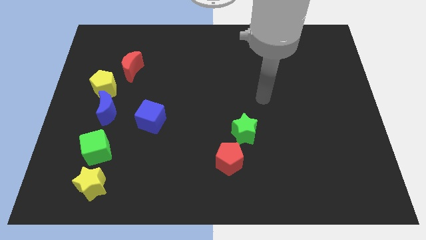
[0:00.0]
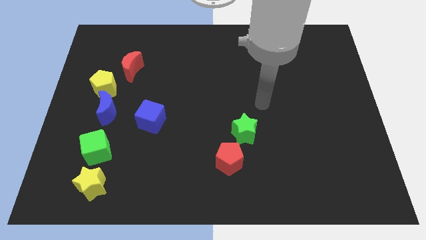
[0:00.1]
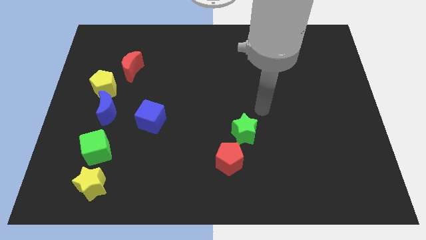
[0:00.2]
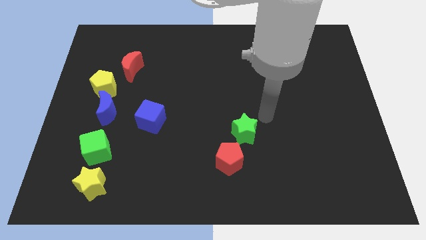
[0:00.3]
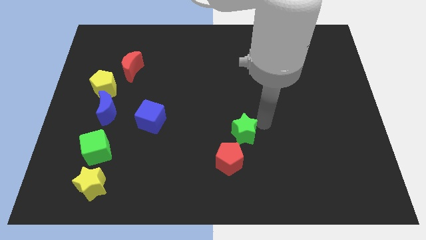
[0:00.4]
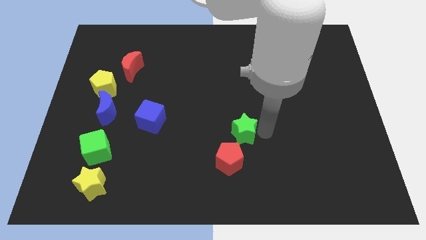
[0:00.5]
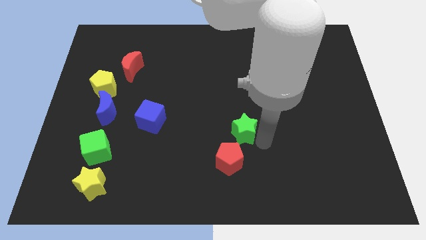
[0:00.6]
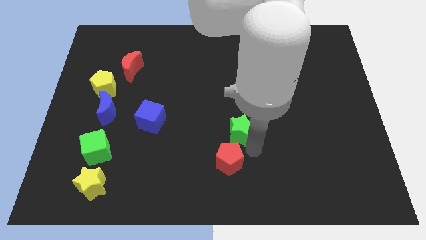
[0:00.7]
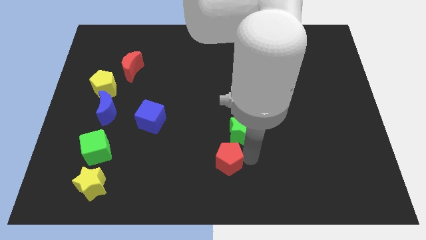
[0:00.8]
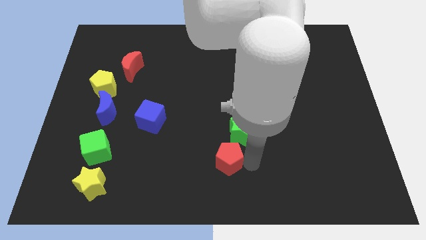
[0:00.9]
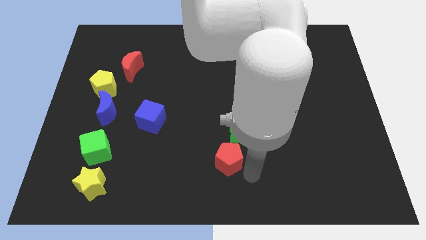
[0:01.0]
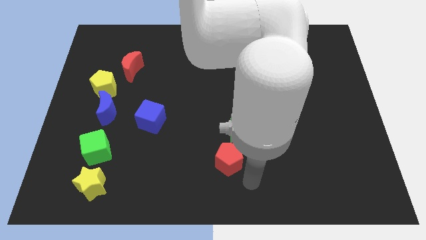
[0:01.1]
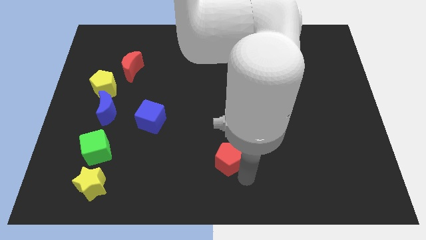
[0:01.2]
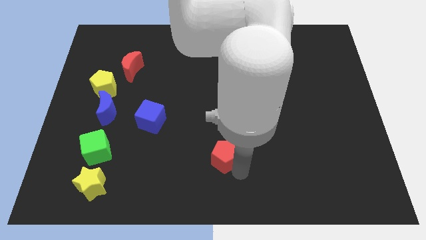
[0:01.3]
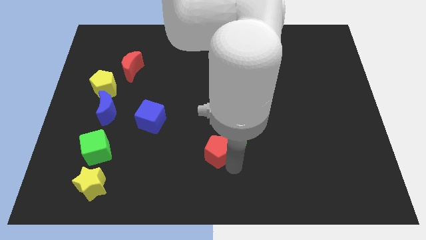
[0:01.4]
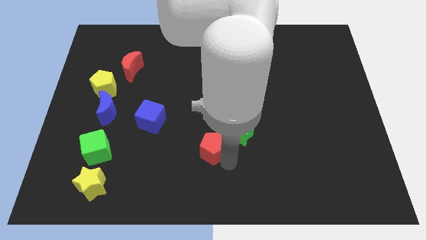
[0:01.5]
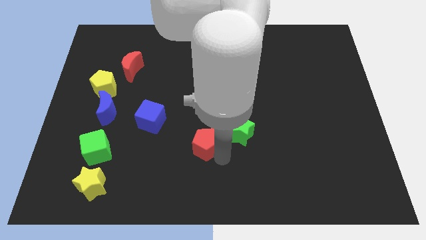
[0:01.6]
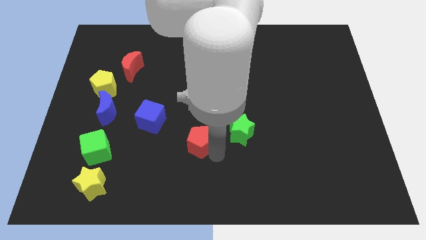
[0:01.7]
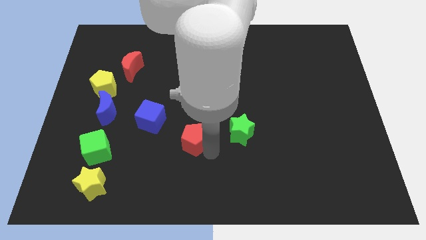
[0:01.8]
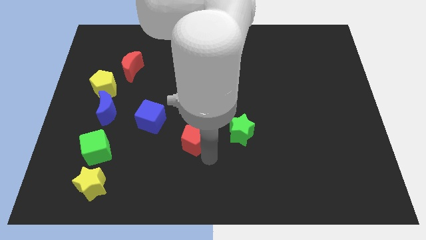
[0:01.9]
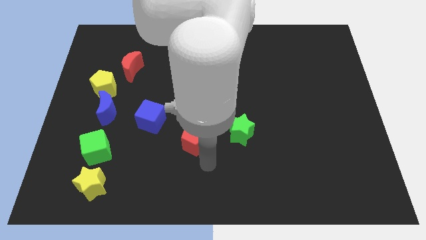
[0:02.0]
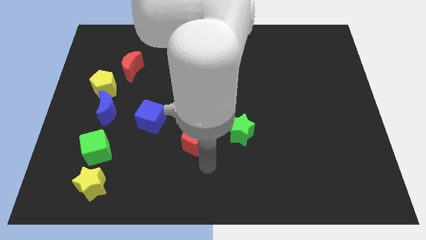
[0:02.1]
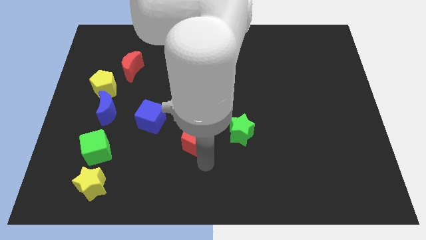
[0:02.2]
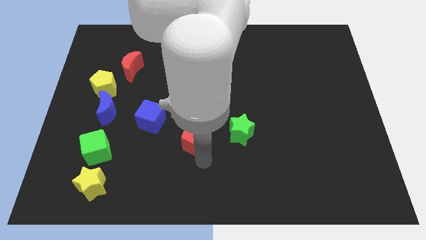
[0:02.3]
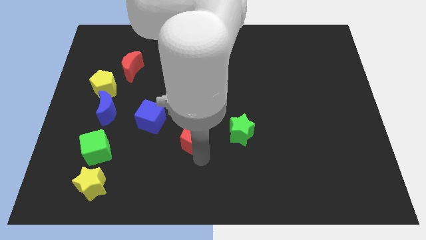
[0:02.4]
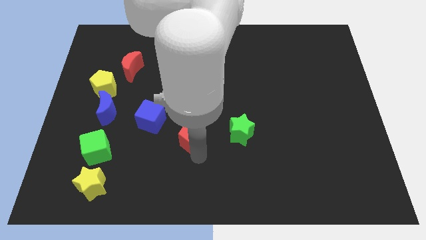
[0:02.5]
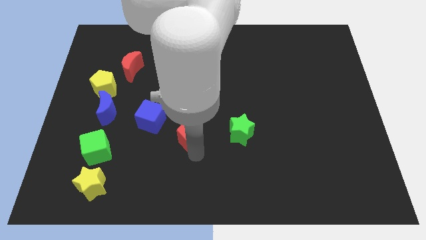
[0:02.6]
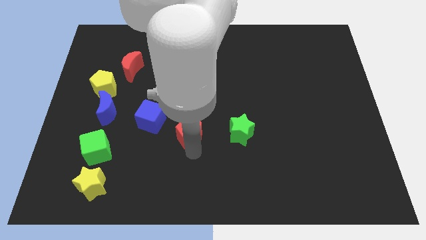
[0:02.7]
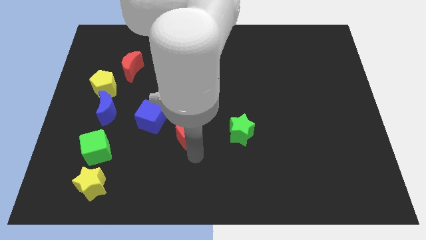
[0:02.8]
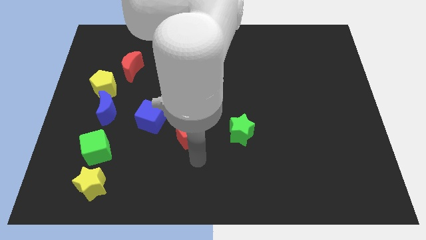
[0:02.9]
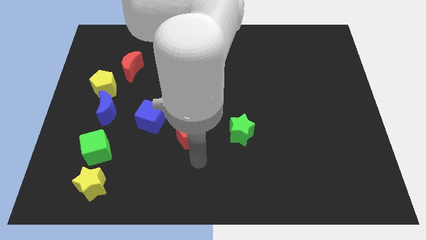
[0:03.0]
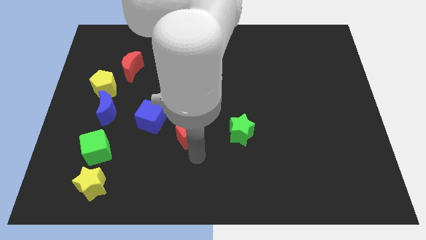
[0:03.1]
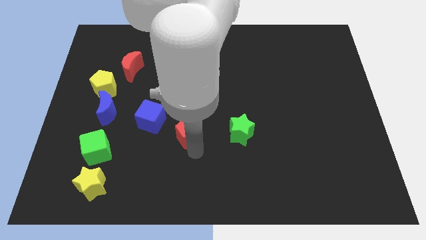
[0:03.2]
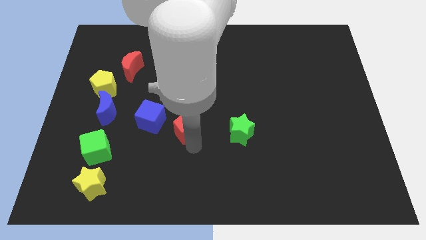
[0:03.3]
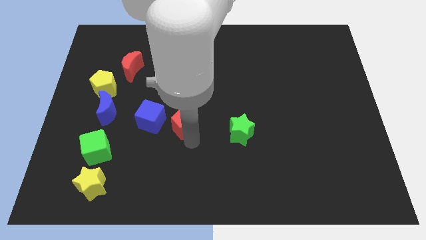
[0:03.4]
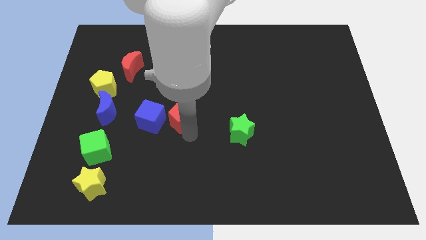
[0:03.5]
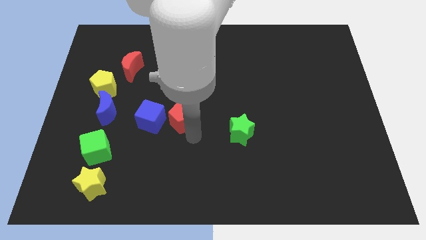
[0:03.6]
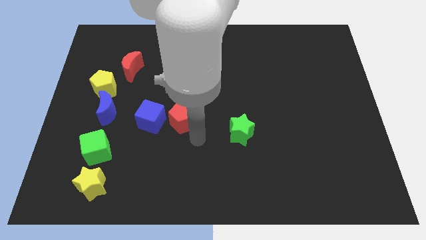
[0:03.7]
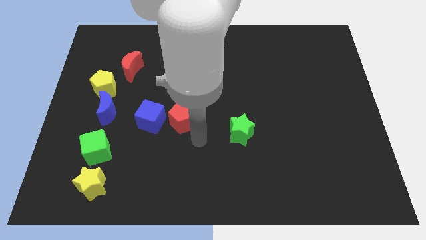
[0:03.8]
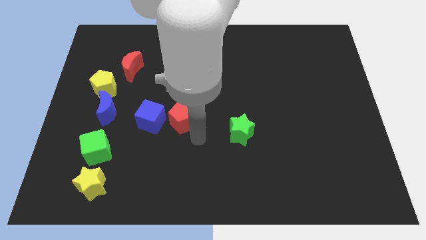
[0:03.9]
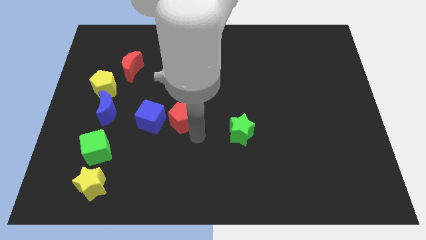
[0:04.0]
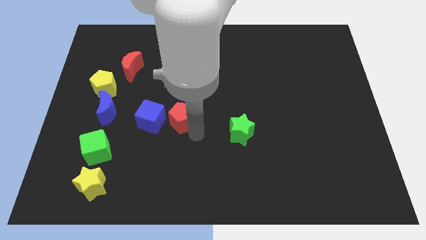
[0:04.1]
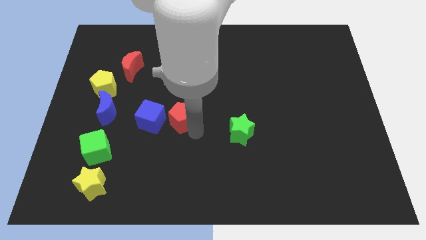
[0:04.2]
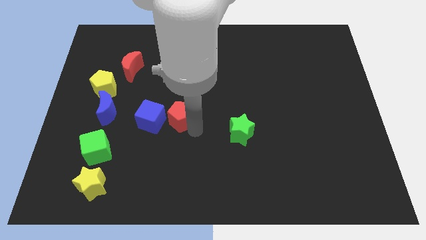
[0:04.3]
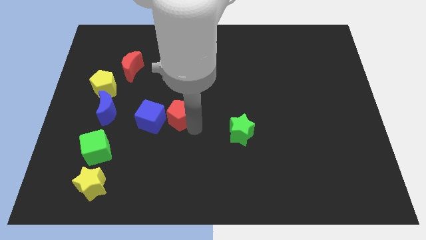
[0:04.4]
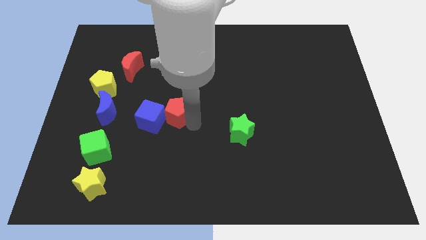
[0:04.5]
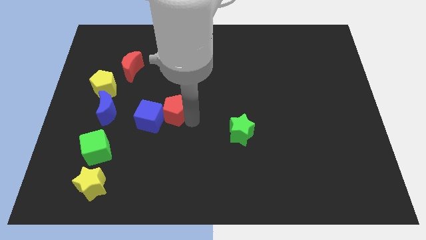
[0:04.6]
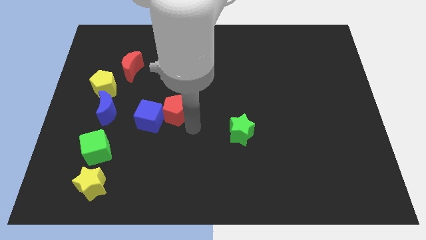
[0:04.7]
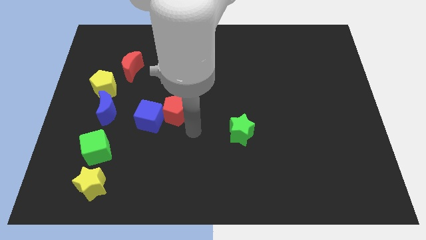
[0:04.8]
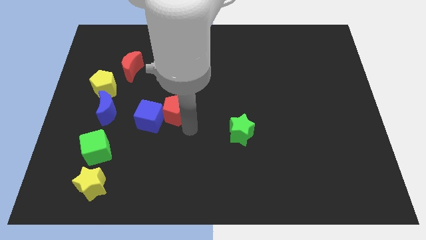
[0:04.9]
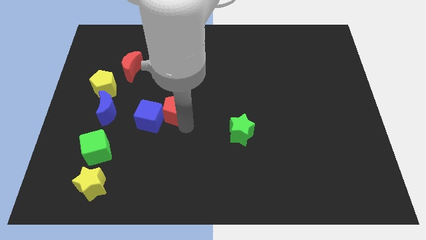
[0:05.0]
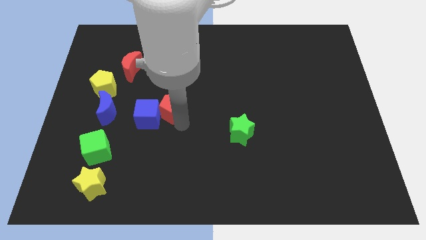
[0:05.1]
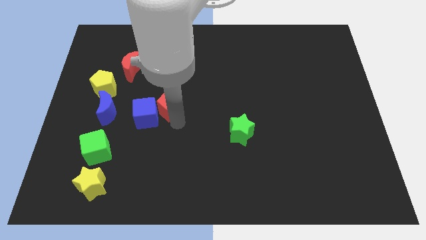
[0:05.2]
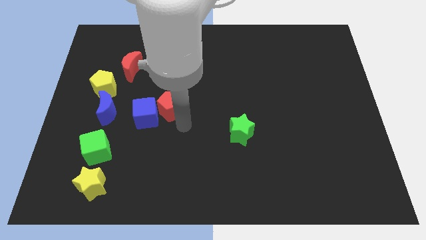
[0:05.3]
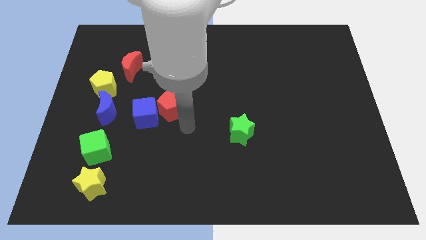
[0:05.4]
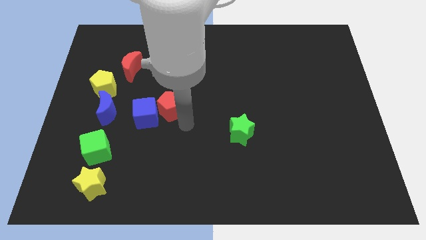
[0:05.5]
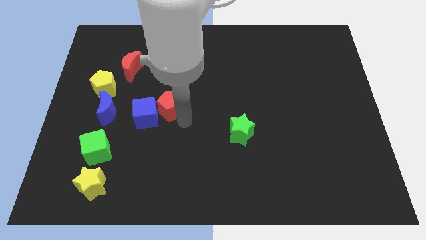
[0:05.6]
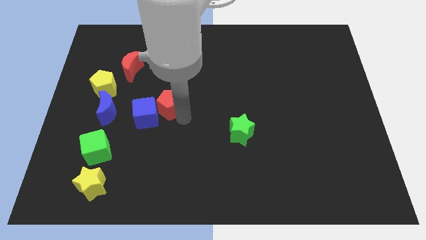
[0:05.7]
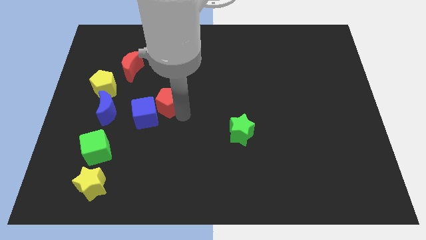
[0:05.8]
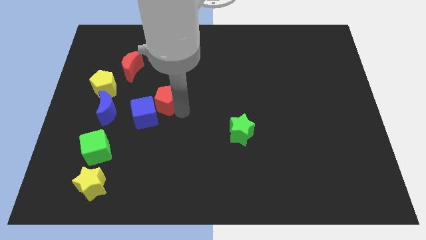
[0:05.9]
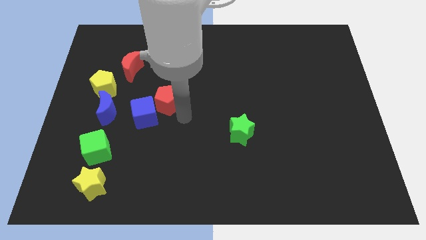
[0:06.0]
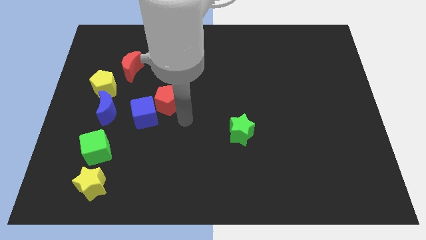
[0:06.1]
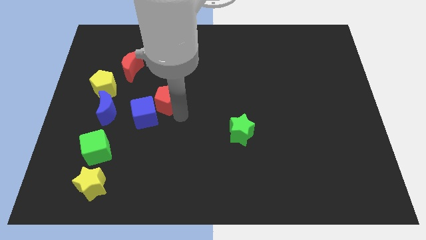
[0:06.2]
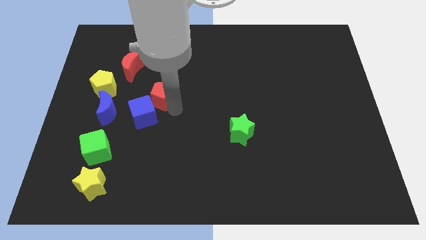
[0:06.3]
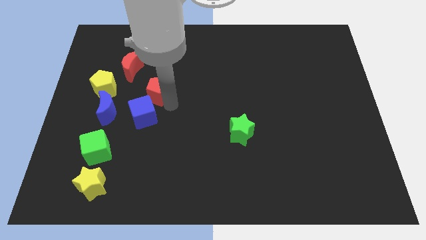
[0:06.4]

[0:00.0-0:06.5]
push the red pentagon diagonally down and to the right of the red moon

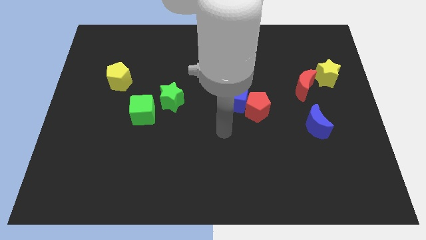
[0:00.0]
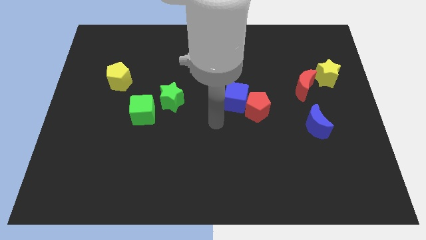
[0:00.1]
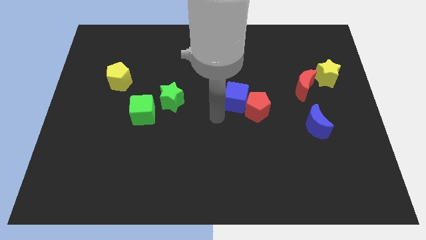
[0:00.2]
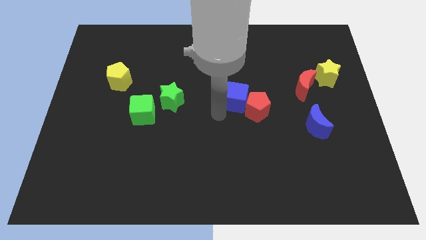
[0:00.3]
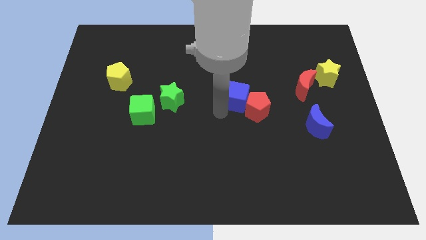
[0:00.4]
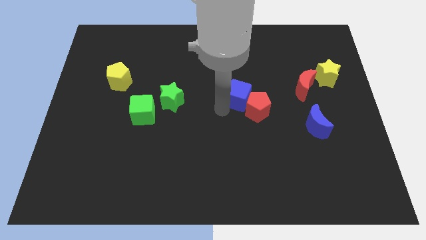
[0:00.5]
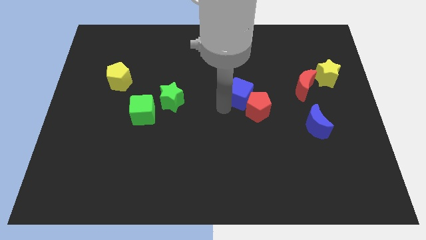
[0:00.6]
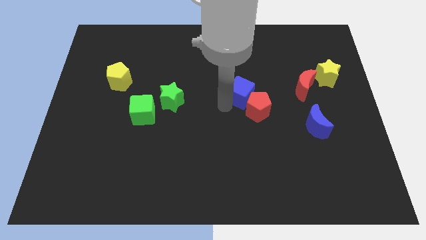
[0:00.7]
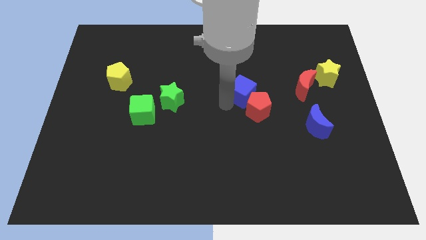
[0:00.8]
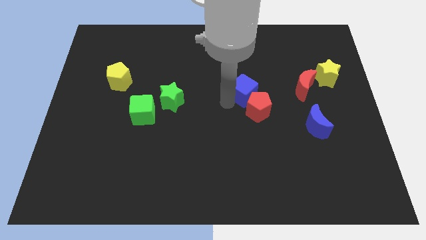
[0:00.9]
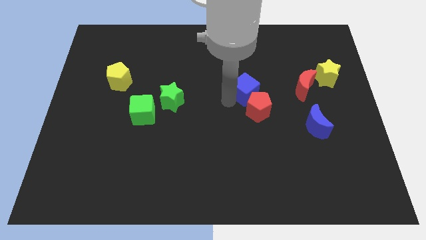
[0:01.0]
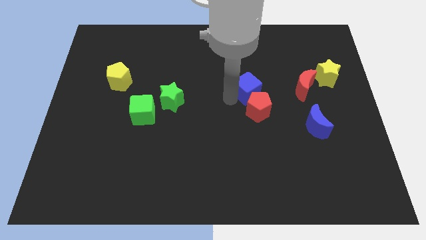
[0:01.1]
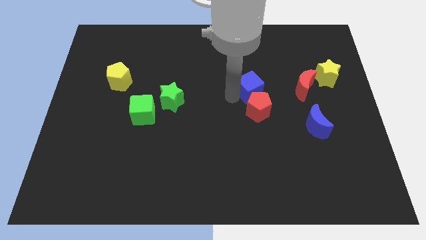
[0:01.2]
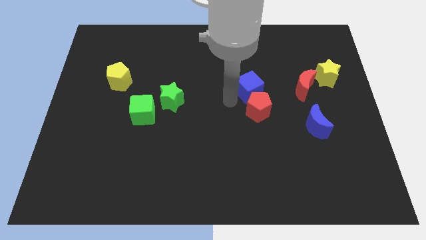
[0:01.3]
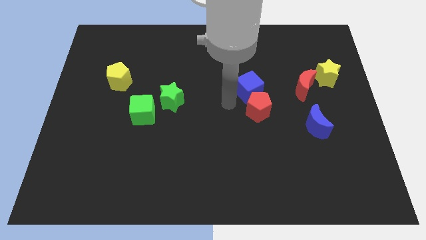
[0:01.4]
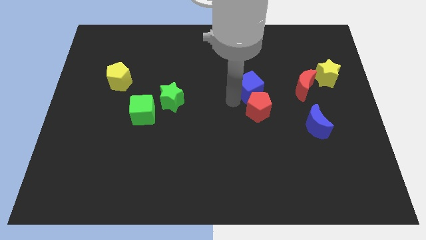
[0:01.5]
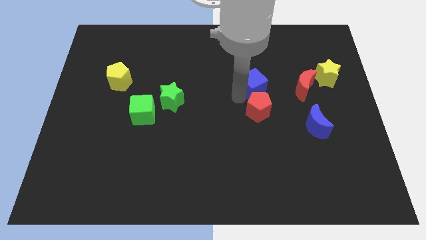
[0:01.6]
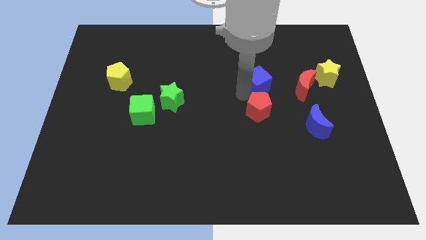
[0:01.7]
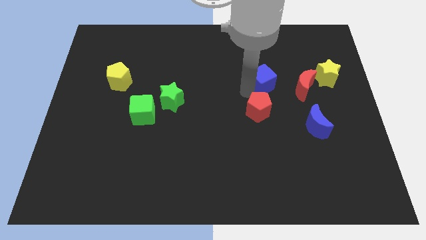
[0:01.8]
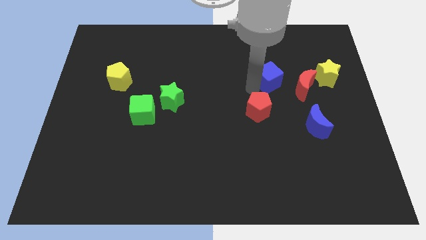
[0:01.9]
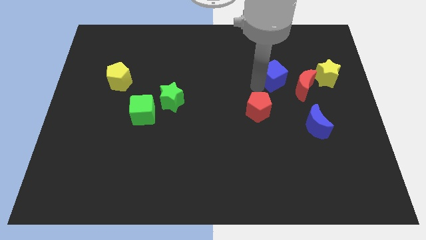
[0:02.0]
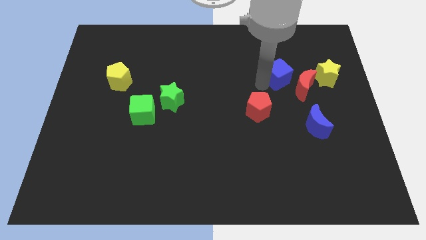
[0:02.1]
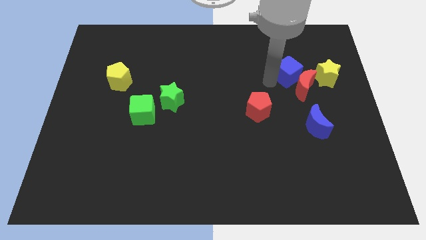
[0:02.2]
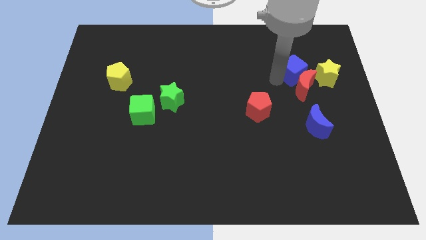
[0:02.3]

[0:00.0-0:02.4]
push the blue cube diagonally up and to the left of the yellow star
